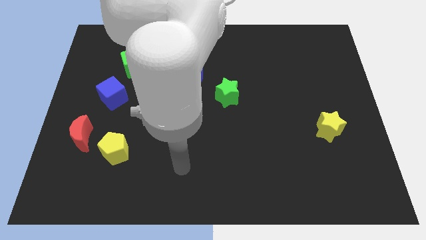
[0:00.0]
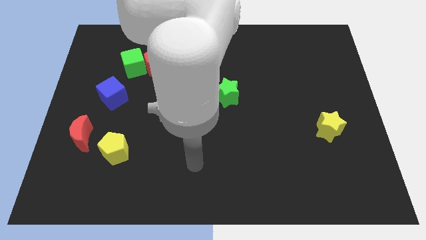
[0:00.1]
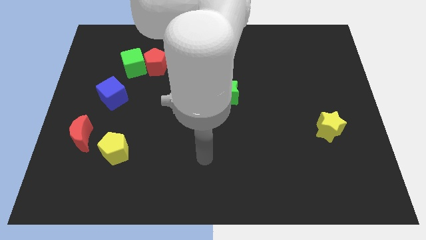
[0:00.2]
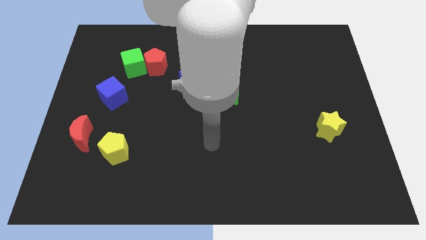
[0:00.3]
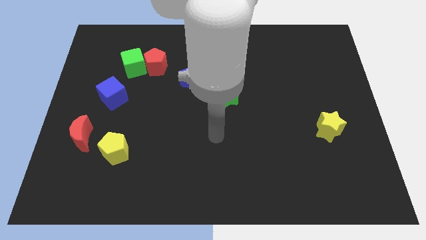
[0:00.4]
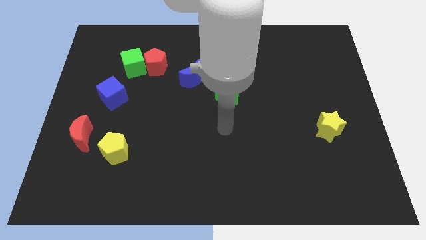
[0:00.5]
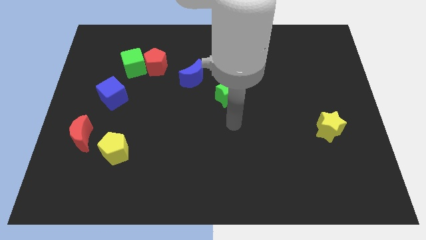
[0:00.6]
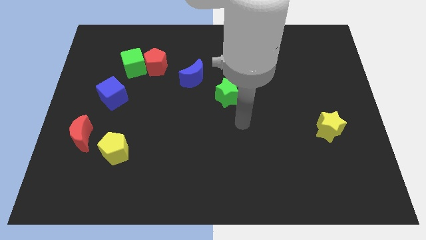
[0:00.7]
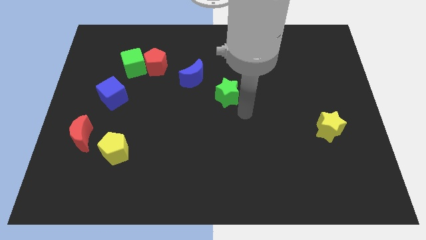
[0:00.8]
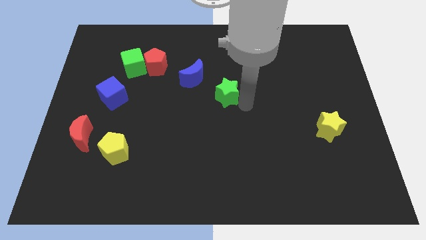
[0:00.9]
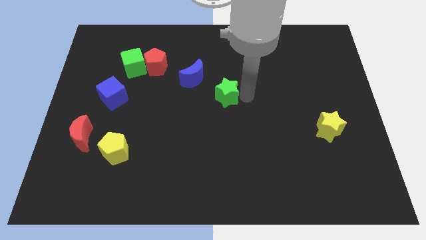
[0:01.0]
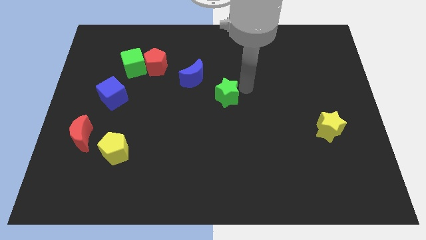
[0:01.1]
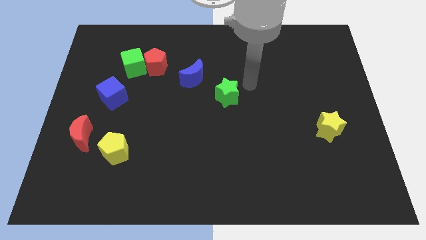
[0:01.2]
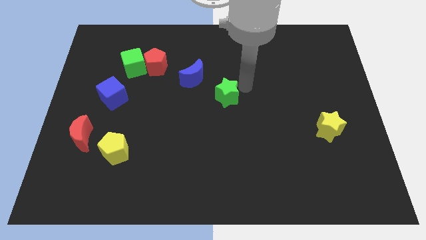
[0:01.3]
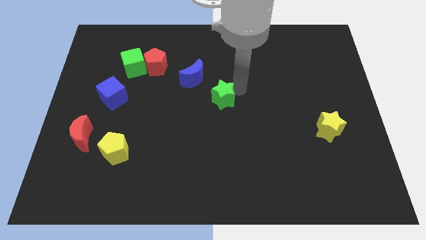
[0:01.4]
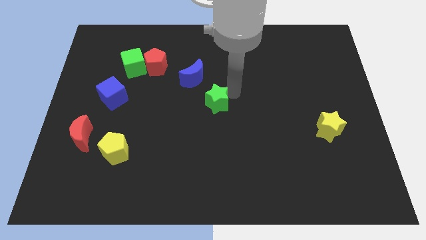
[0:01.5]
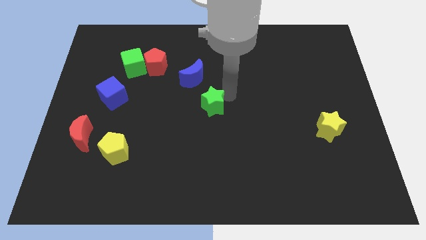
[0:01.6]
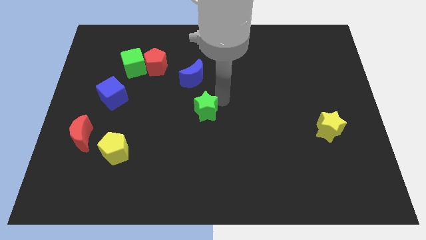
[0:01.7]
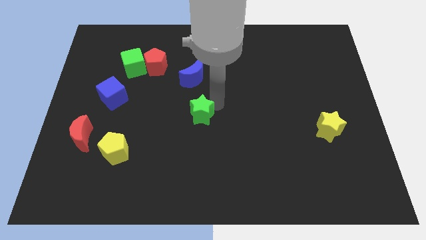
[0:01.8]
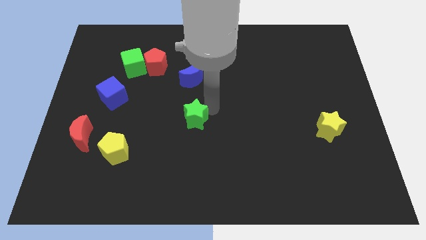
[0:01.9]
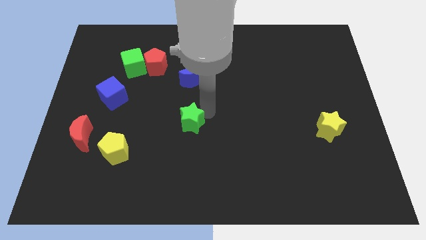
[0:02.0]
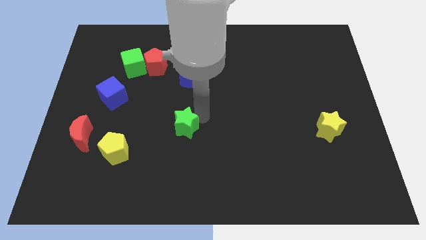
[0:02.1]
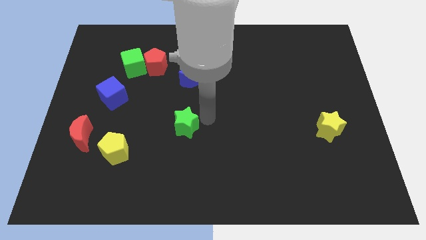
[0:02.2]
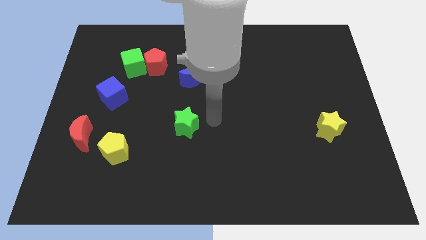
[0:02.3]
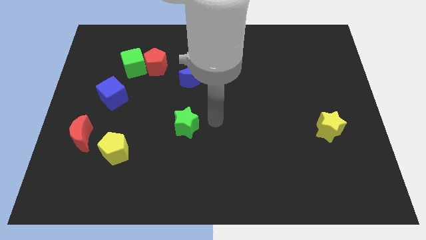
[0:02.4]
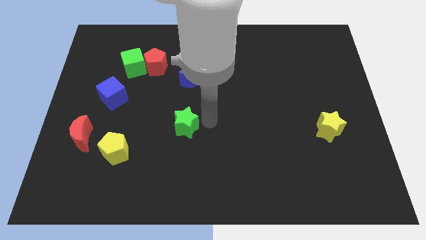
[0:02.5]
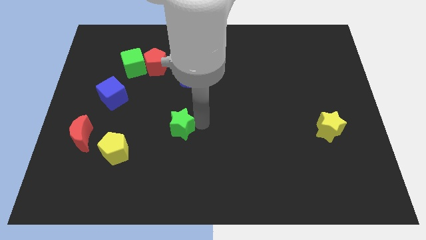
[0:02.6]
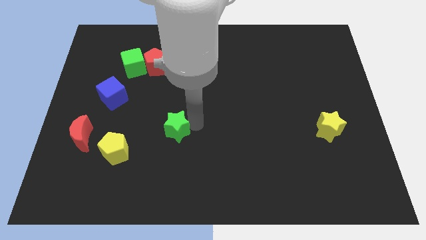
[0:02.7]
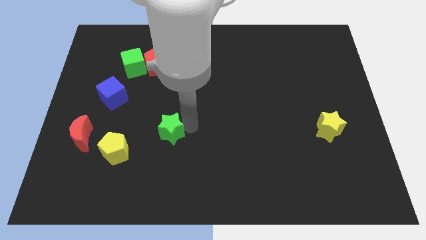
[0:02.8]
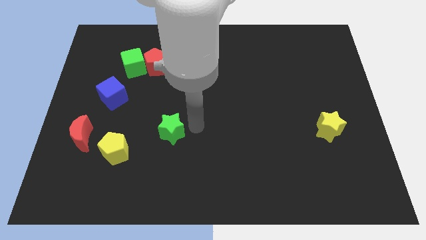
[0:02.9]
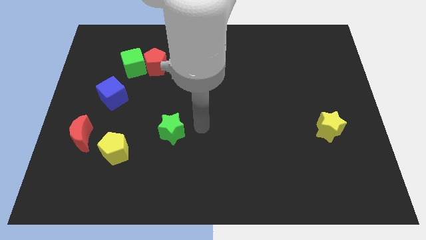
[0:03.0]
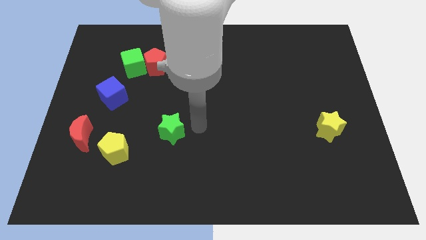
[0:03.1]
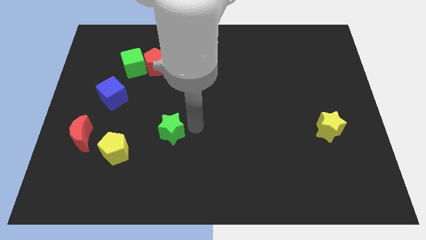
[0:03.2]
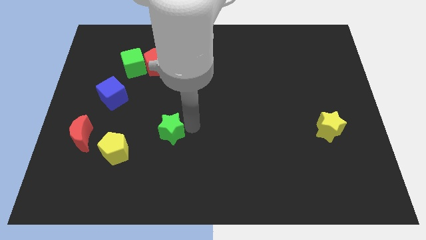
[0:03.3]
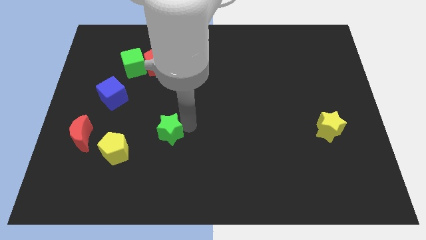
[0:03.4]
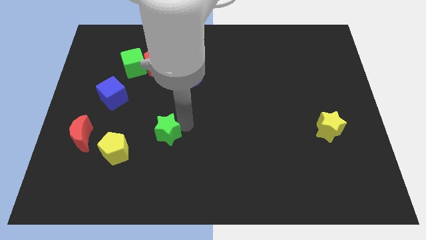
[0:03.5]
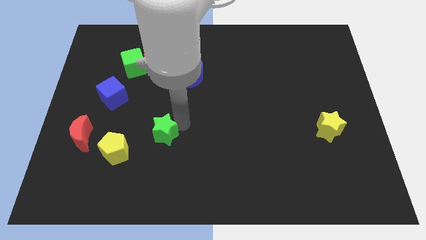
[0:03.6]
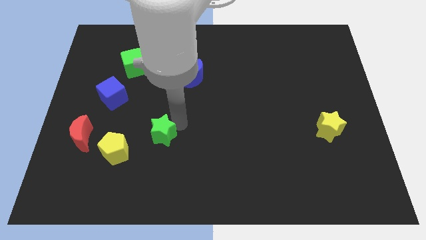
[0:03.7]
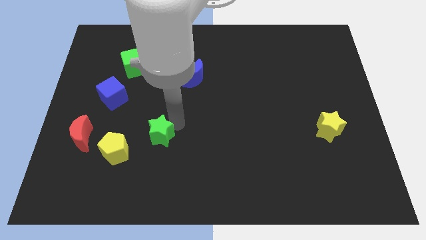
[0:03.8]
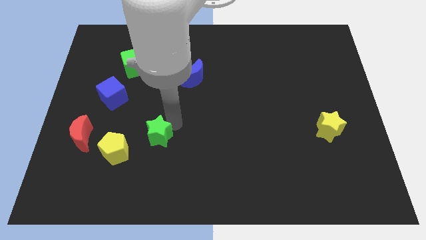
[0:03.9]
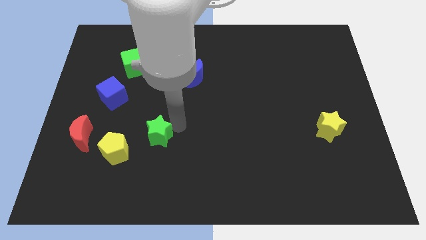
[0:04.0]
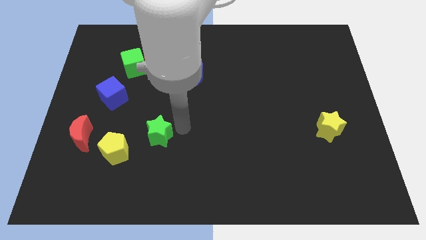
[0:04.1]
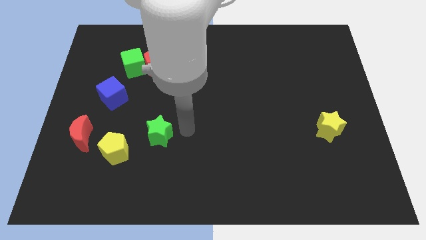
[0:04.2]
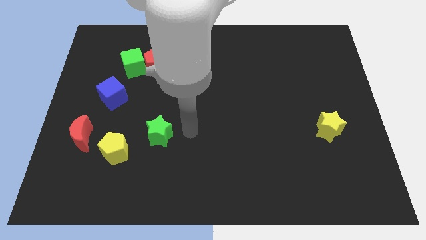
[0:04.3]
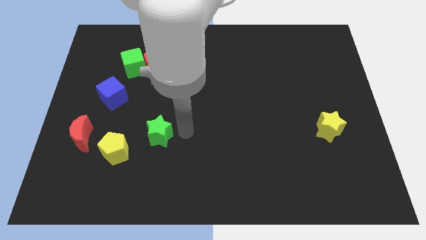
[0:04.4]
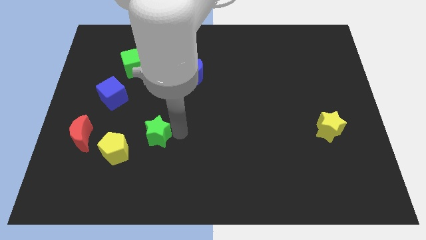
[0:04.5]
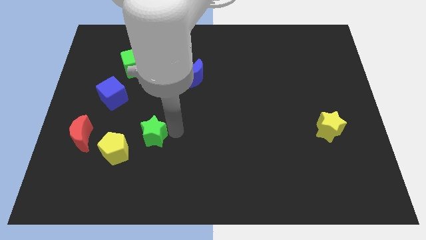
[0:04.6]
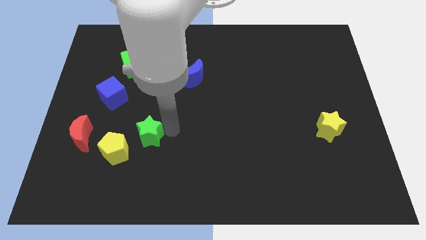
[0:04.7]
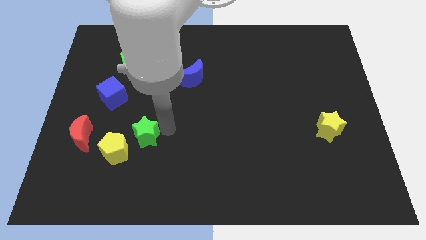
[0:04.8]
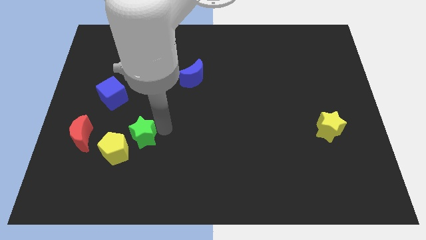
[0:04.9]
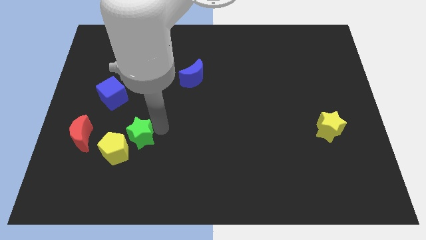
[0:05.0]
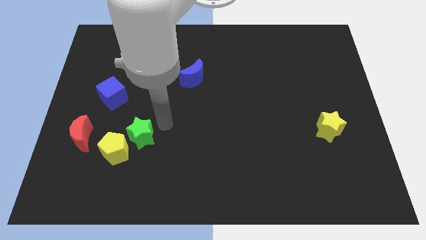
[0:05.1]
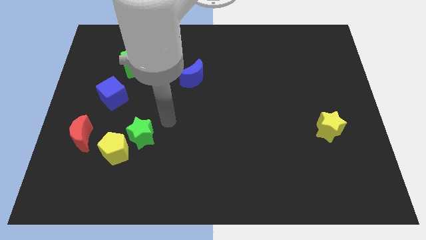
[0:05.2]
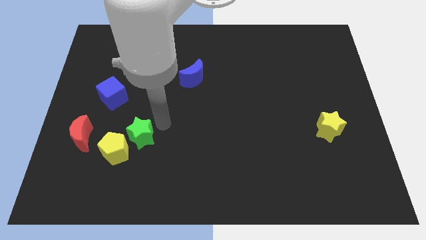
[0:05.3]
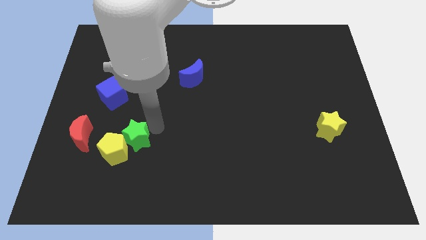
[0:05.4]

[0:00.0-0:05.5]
put the green star towards the yellow pentagon

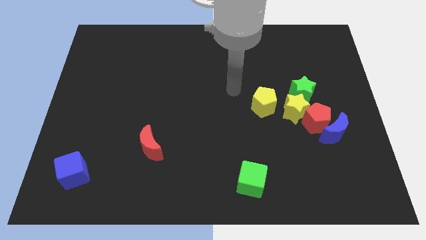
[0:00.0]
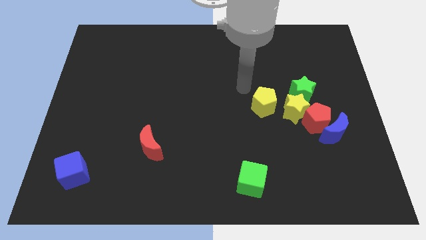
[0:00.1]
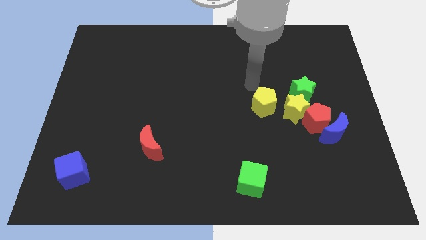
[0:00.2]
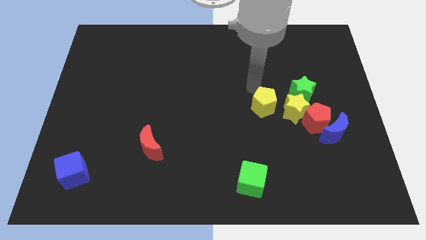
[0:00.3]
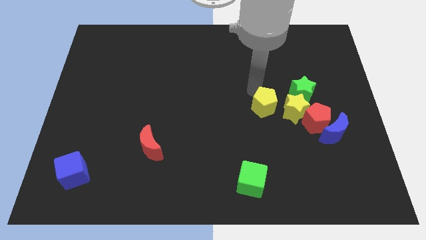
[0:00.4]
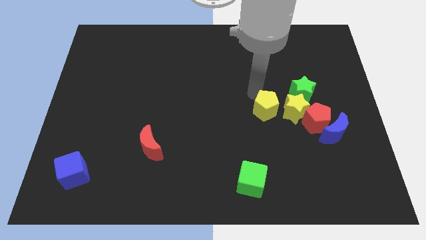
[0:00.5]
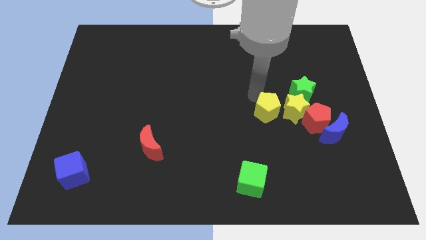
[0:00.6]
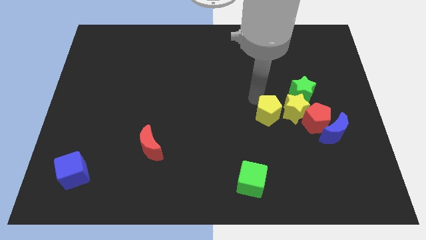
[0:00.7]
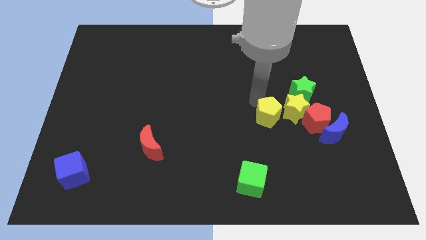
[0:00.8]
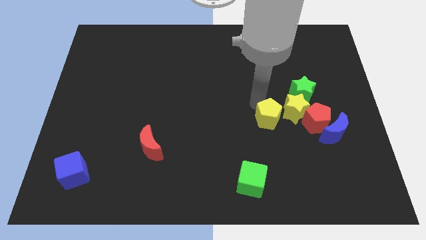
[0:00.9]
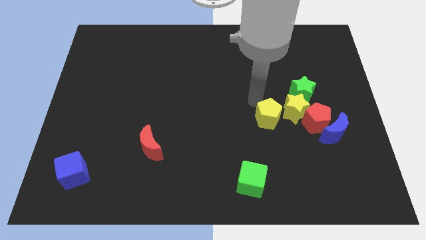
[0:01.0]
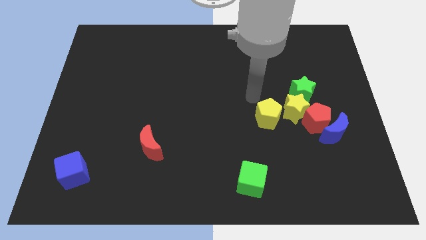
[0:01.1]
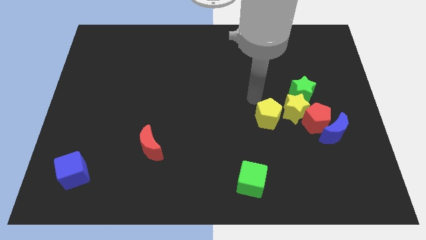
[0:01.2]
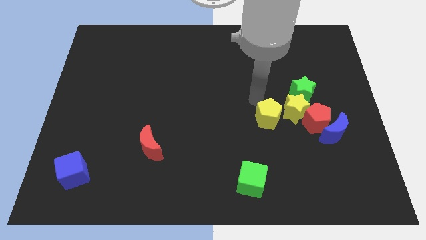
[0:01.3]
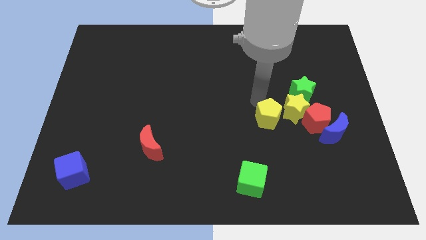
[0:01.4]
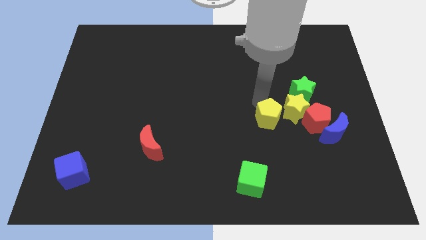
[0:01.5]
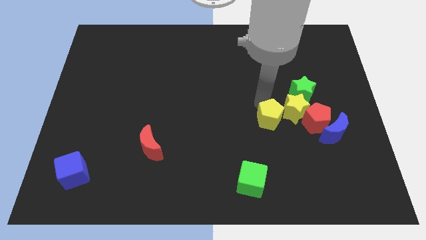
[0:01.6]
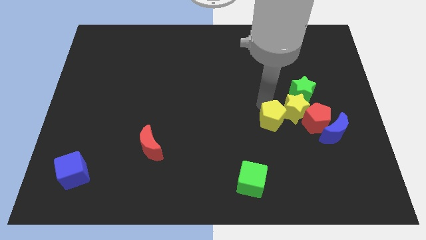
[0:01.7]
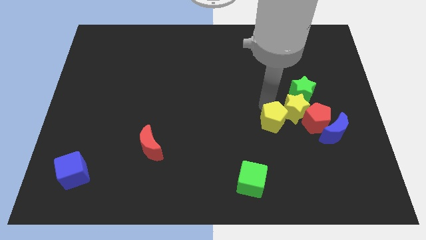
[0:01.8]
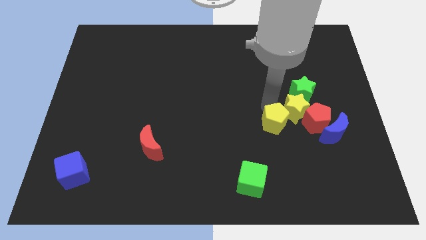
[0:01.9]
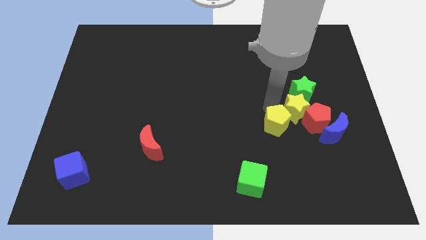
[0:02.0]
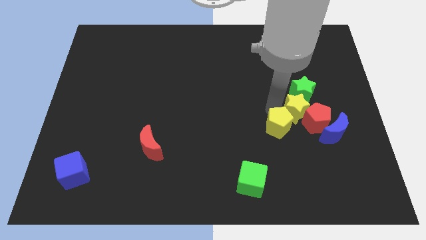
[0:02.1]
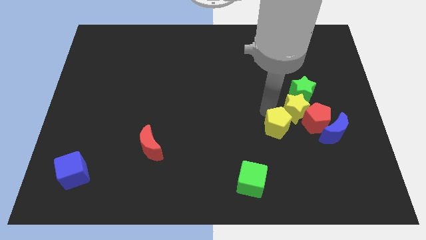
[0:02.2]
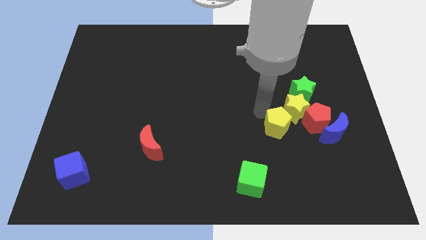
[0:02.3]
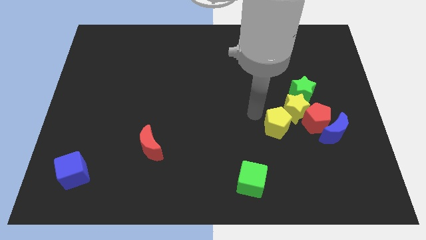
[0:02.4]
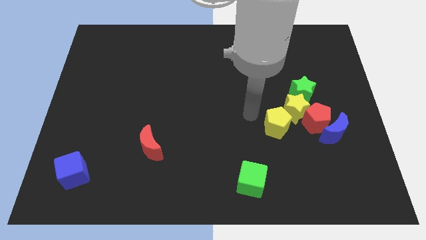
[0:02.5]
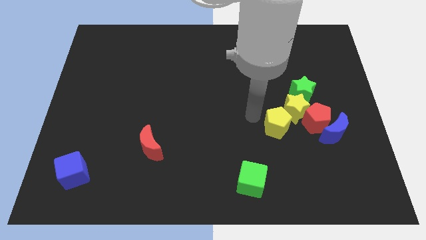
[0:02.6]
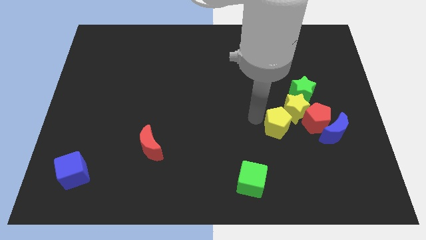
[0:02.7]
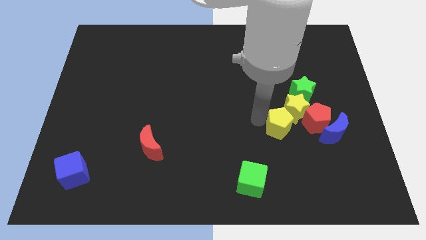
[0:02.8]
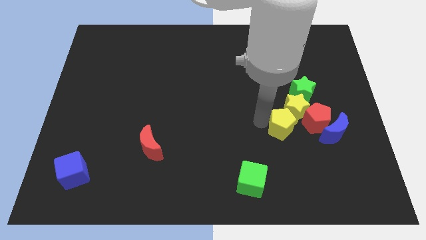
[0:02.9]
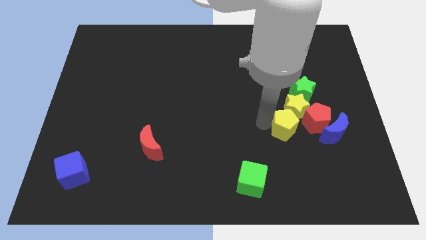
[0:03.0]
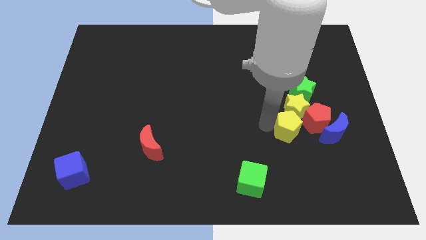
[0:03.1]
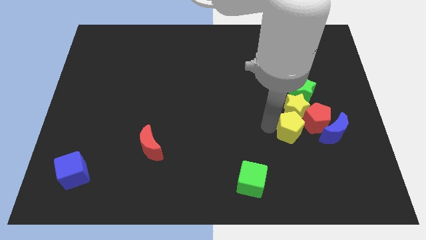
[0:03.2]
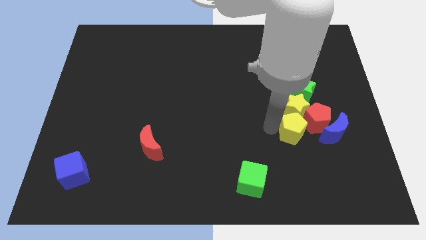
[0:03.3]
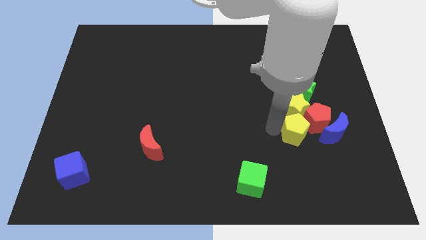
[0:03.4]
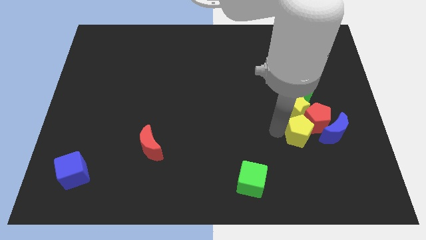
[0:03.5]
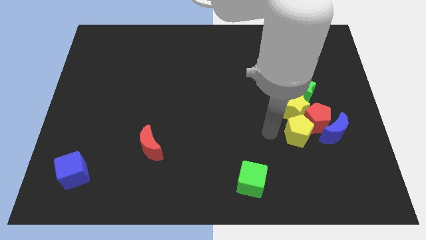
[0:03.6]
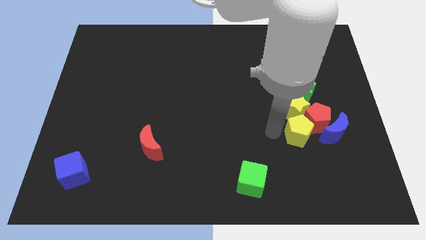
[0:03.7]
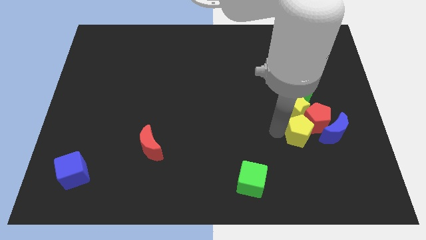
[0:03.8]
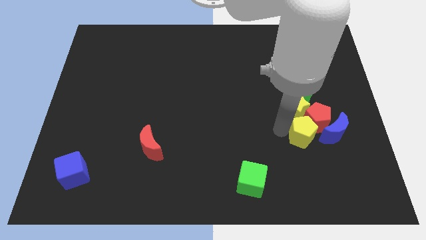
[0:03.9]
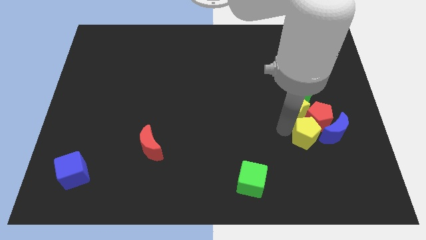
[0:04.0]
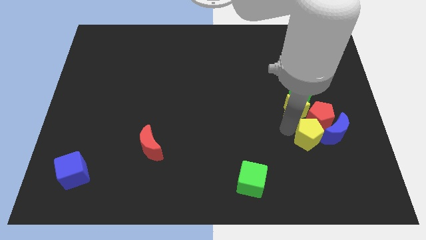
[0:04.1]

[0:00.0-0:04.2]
slide the yellow pentagon next to the blue moon
